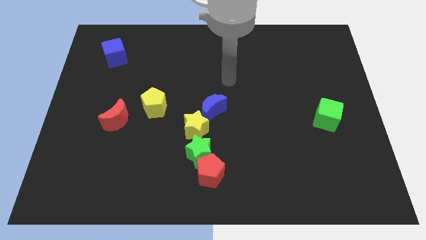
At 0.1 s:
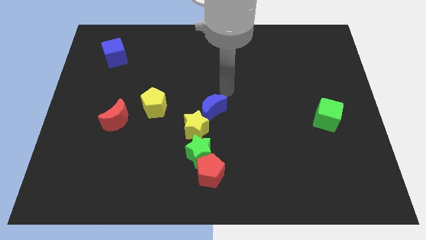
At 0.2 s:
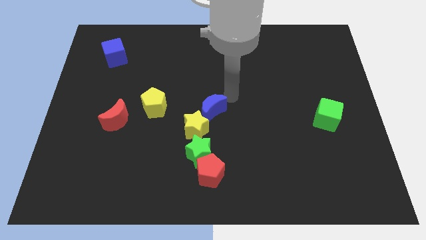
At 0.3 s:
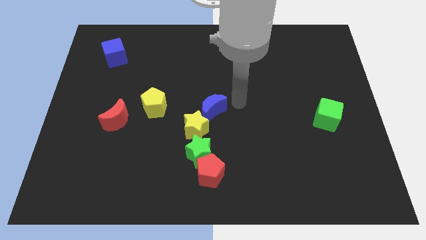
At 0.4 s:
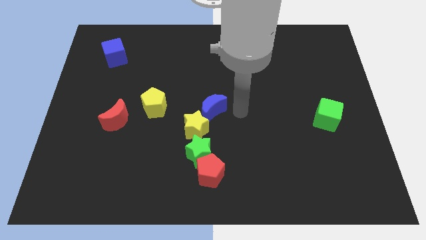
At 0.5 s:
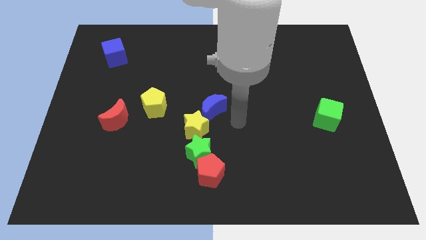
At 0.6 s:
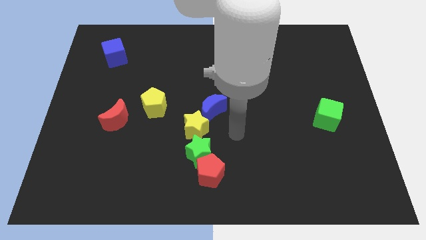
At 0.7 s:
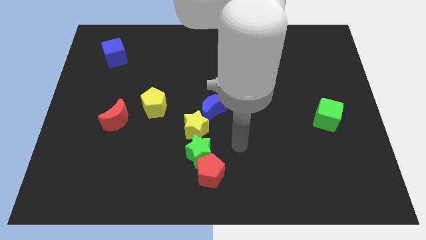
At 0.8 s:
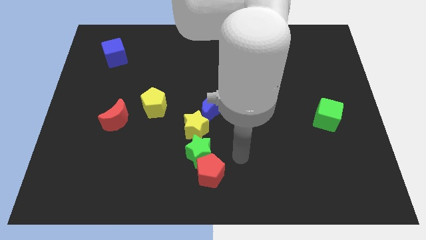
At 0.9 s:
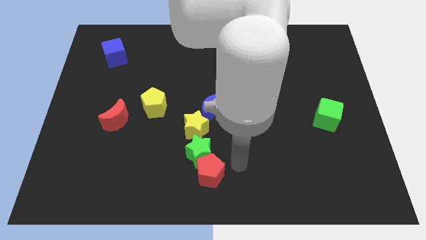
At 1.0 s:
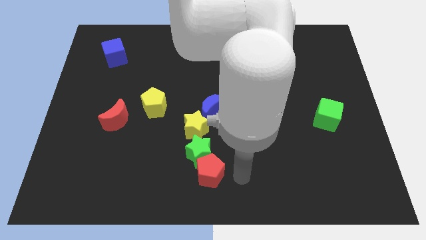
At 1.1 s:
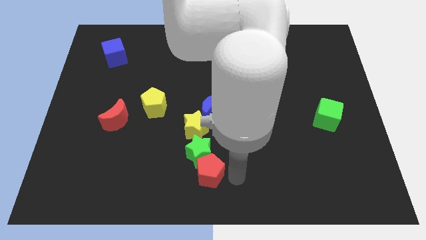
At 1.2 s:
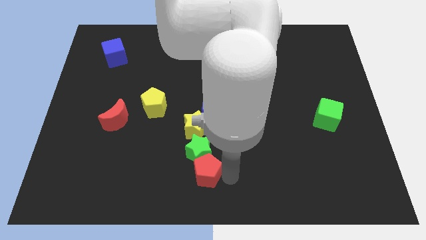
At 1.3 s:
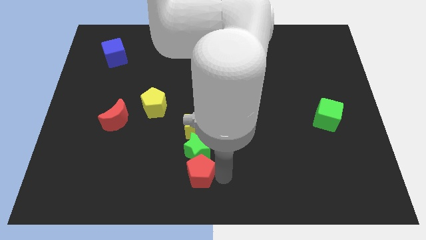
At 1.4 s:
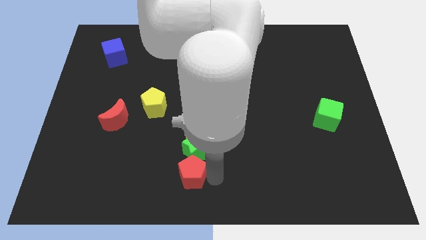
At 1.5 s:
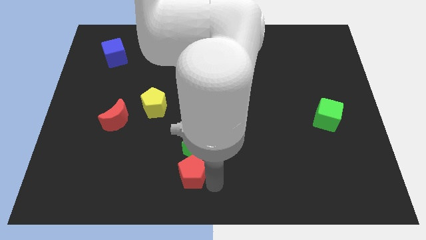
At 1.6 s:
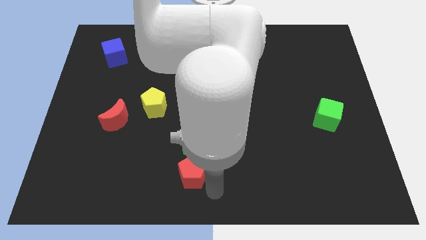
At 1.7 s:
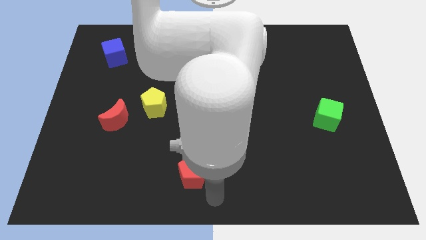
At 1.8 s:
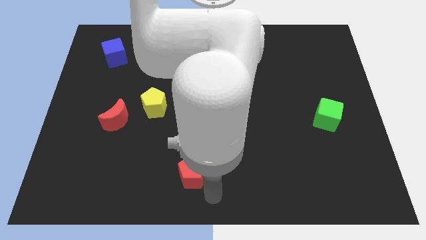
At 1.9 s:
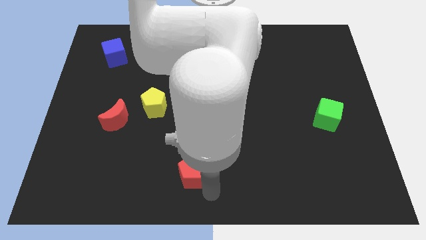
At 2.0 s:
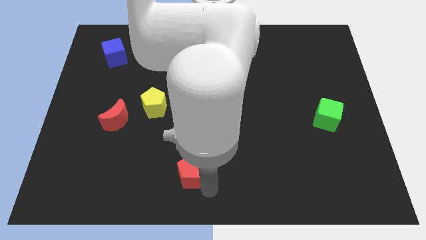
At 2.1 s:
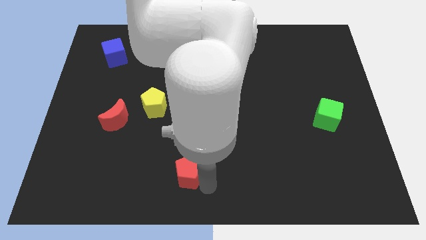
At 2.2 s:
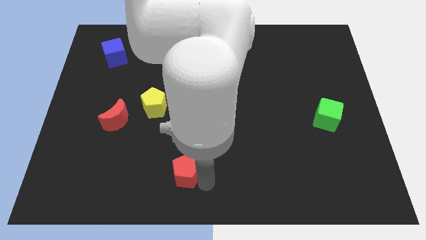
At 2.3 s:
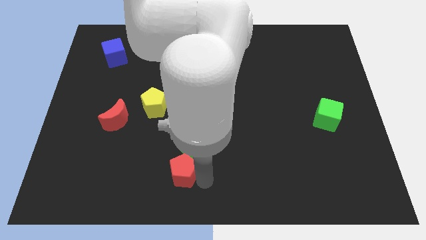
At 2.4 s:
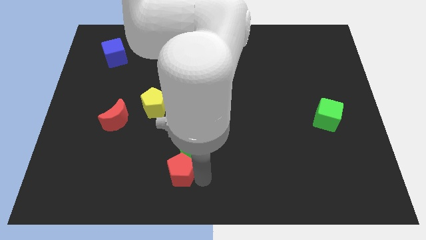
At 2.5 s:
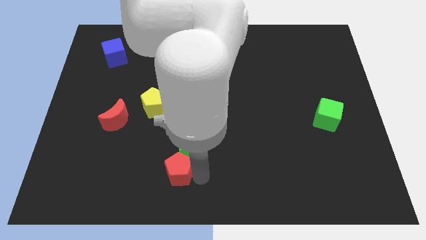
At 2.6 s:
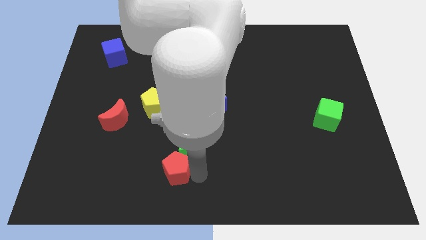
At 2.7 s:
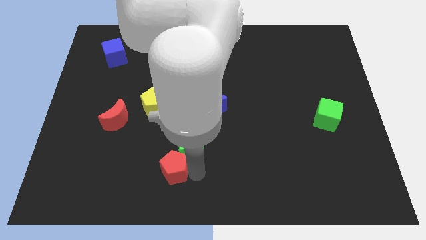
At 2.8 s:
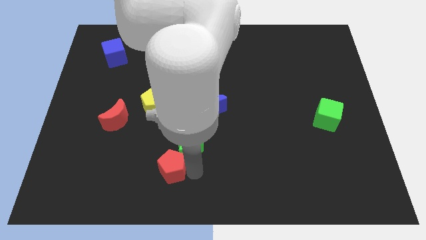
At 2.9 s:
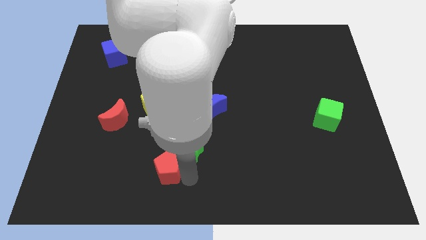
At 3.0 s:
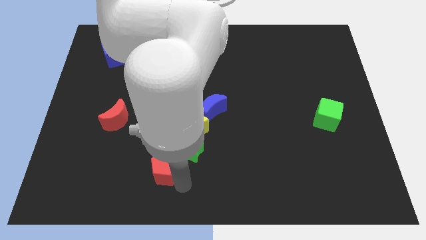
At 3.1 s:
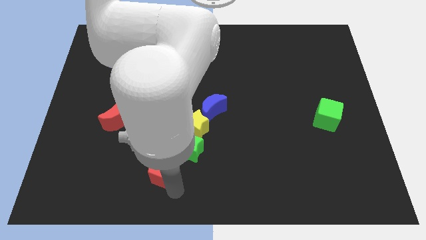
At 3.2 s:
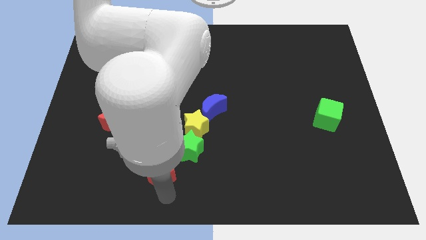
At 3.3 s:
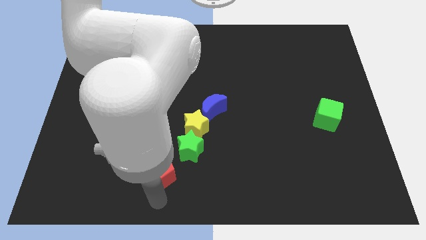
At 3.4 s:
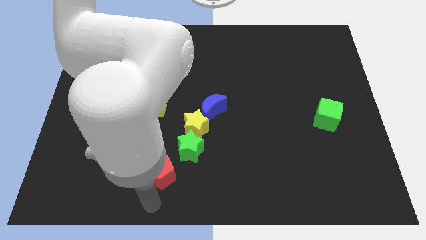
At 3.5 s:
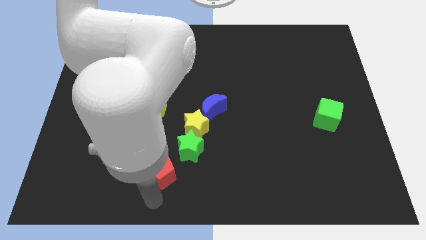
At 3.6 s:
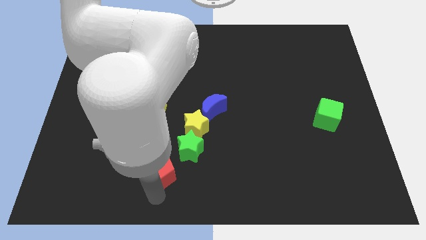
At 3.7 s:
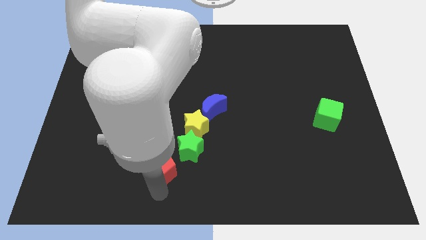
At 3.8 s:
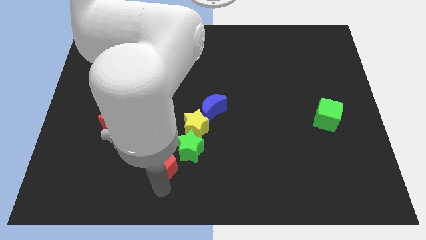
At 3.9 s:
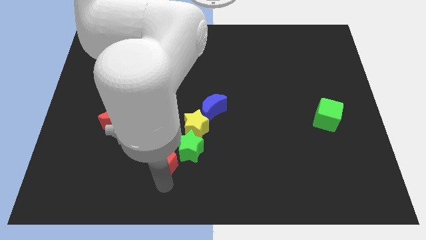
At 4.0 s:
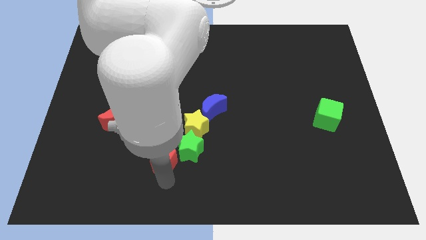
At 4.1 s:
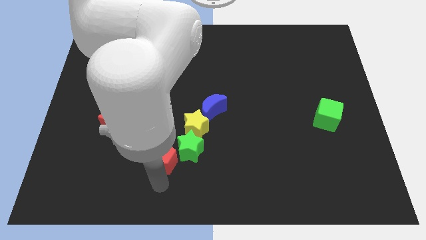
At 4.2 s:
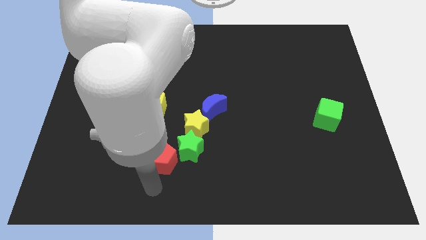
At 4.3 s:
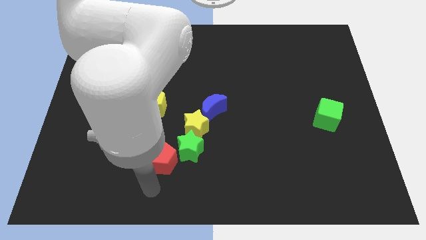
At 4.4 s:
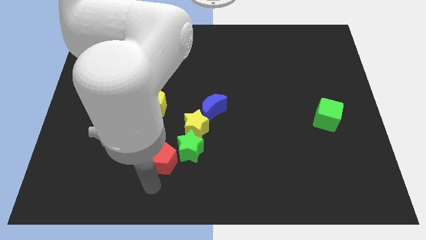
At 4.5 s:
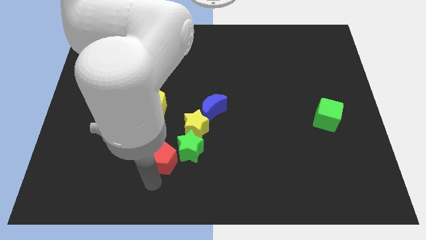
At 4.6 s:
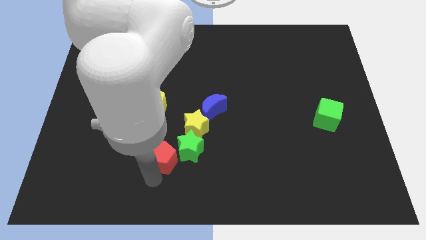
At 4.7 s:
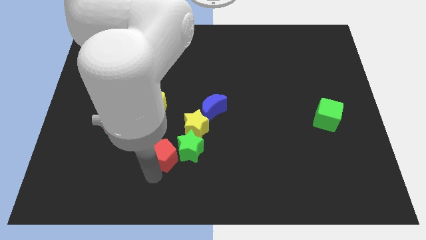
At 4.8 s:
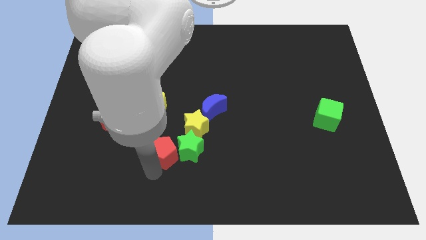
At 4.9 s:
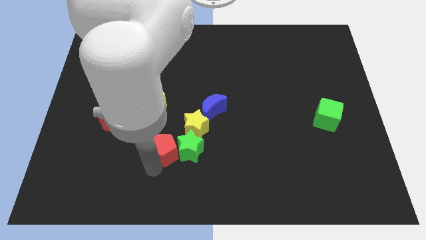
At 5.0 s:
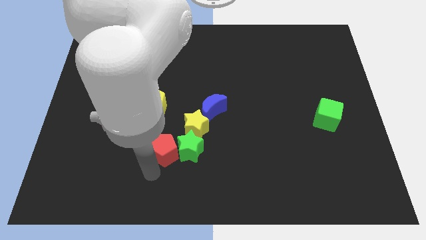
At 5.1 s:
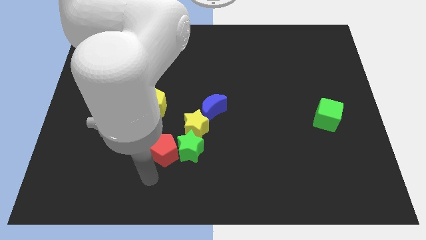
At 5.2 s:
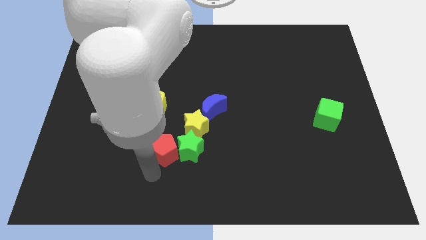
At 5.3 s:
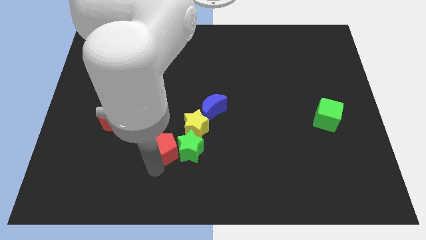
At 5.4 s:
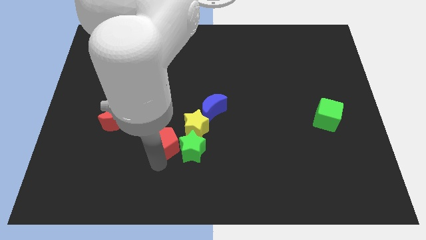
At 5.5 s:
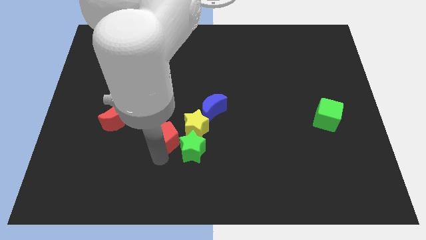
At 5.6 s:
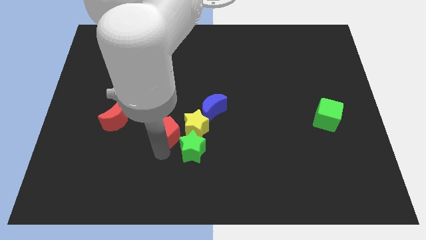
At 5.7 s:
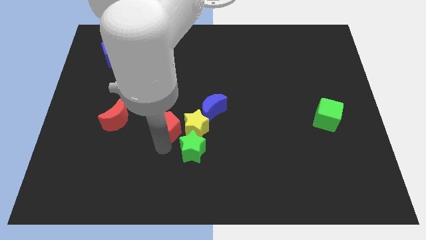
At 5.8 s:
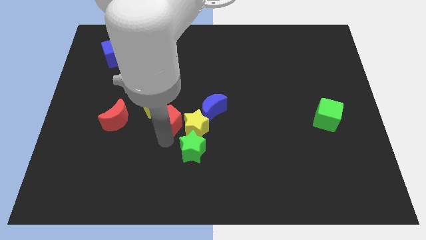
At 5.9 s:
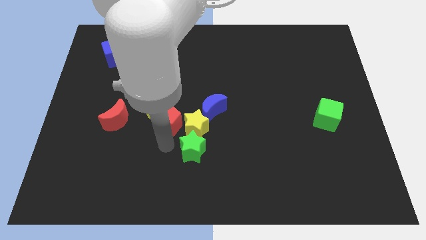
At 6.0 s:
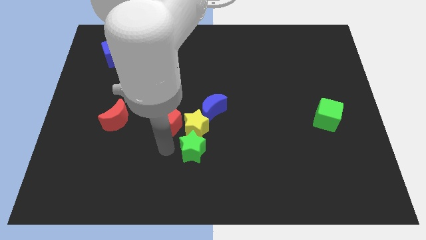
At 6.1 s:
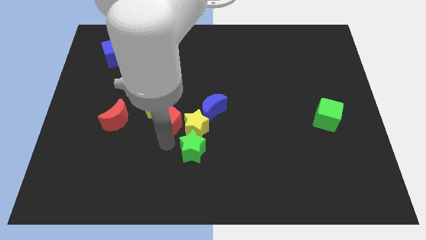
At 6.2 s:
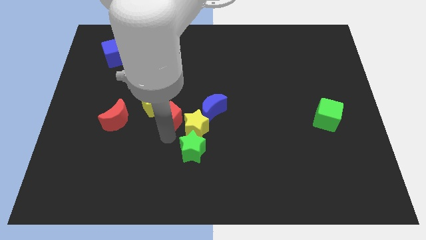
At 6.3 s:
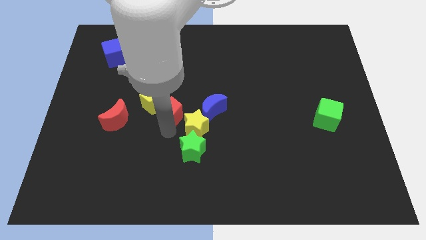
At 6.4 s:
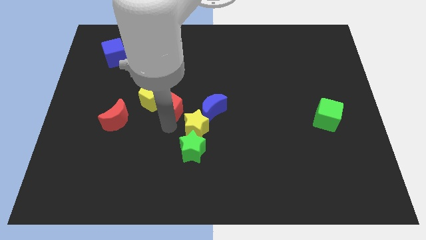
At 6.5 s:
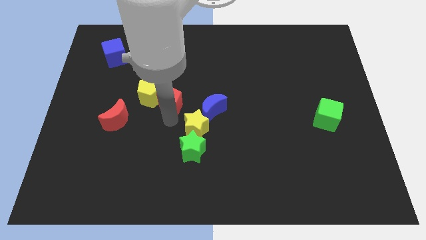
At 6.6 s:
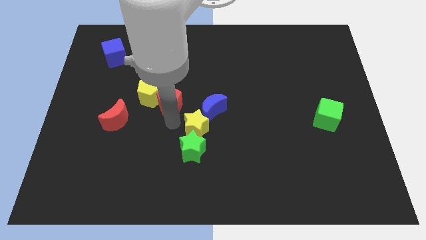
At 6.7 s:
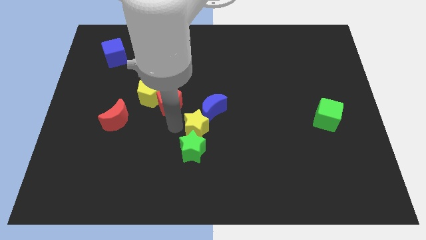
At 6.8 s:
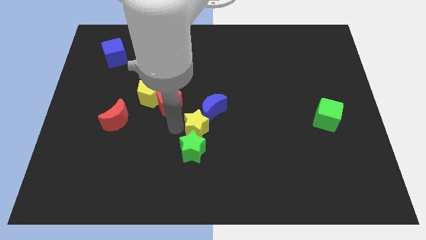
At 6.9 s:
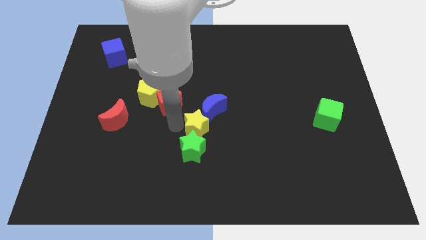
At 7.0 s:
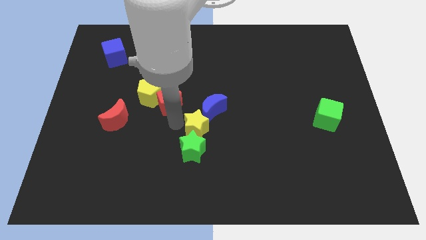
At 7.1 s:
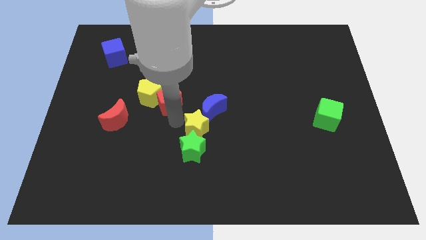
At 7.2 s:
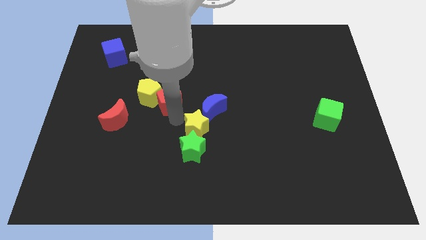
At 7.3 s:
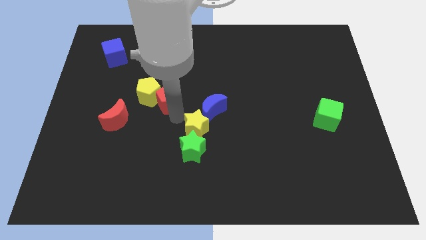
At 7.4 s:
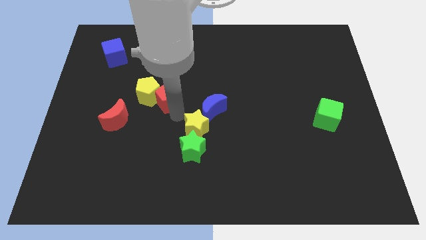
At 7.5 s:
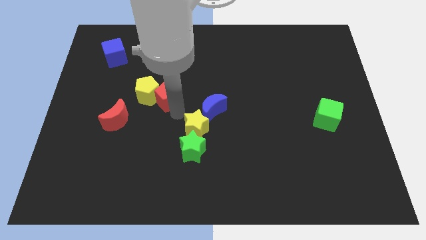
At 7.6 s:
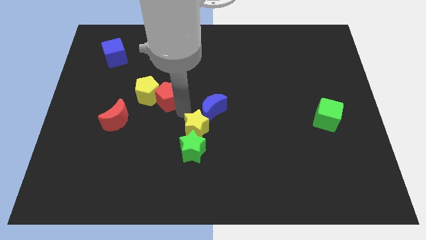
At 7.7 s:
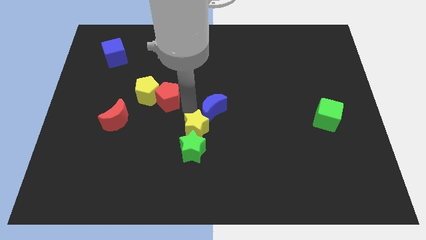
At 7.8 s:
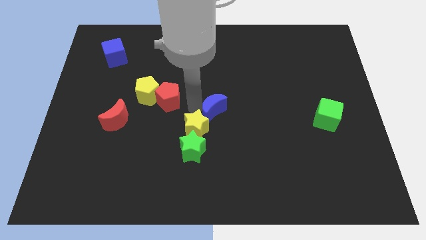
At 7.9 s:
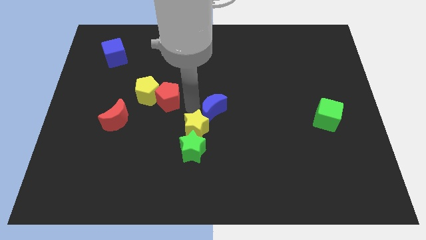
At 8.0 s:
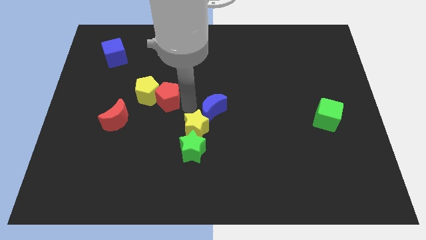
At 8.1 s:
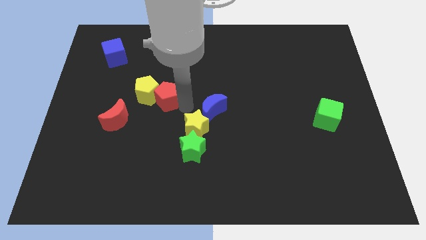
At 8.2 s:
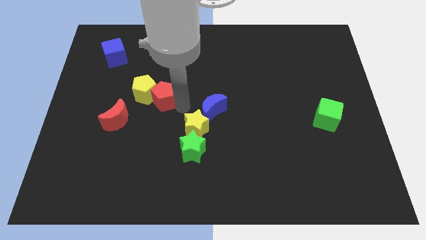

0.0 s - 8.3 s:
push the red pentagon up and to the left diagonally
